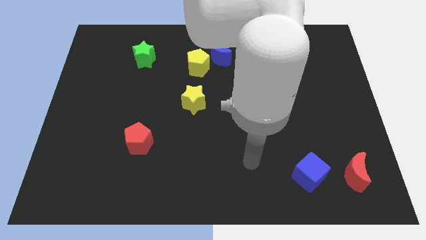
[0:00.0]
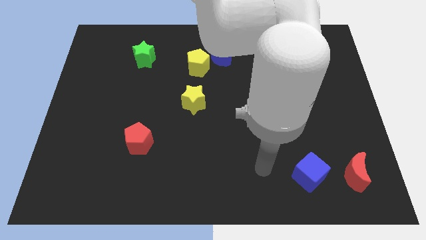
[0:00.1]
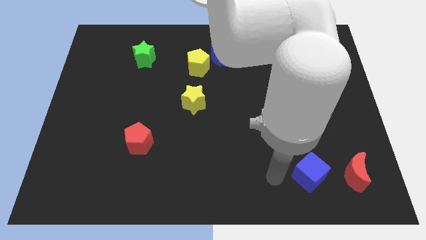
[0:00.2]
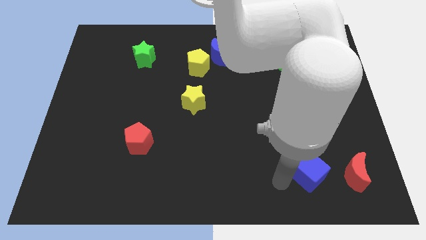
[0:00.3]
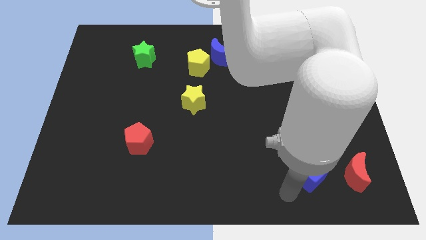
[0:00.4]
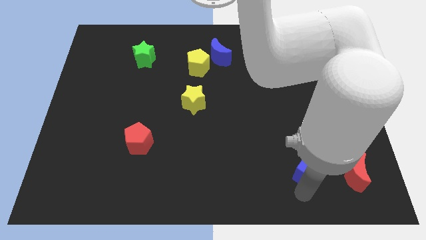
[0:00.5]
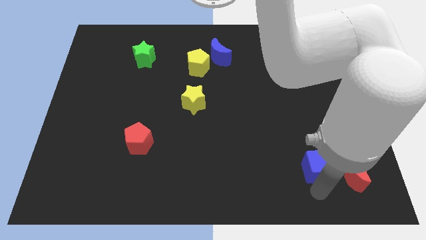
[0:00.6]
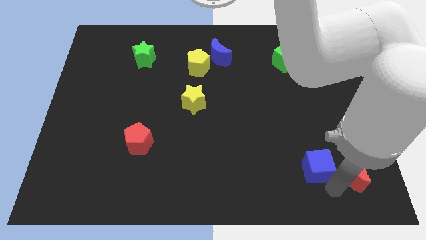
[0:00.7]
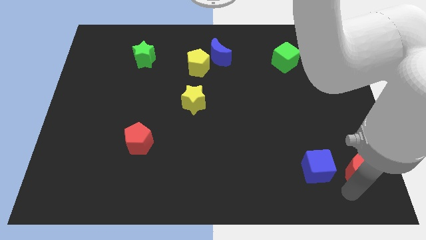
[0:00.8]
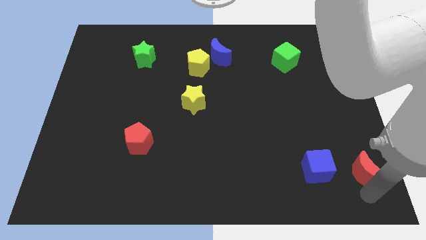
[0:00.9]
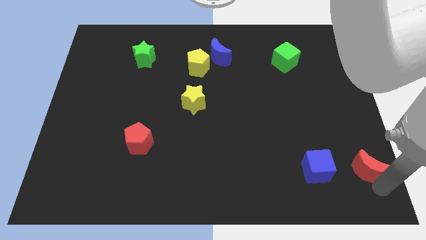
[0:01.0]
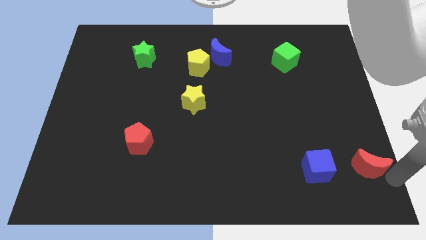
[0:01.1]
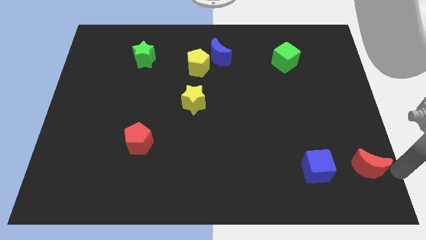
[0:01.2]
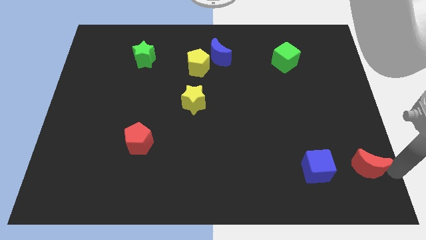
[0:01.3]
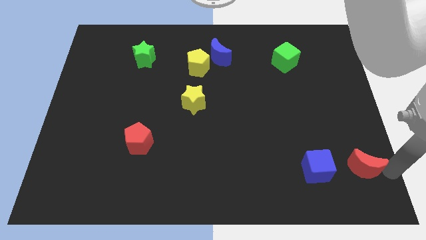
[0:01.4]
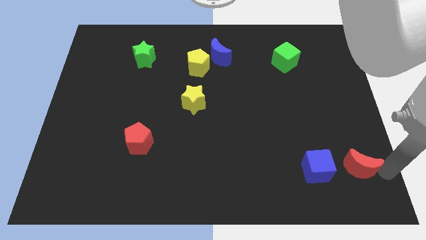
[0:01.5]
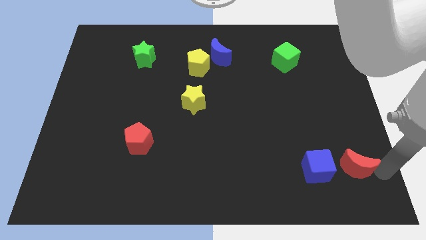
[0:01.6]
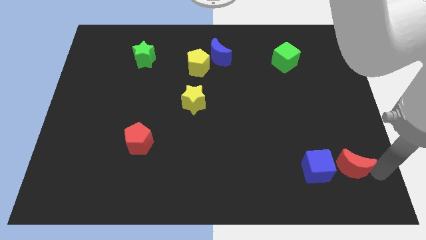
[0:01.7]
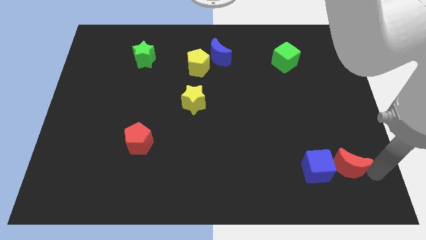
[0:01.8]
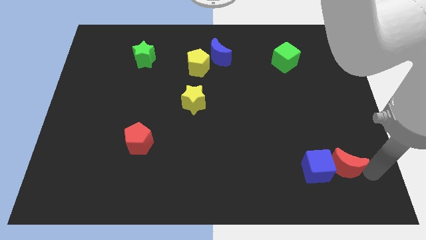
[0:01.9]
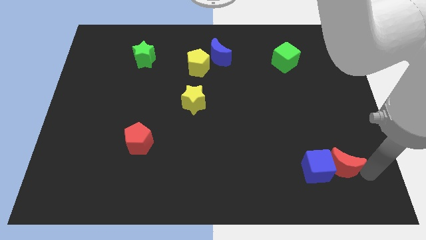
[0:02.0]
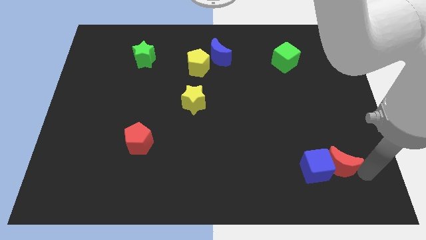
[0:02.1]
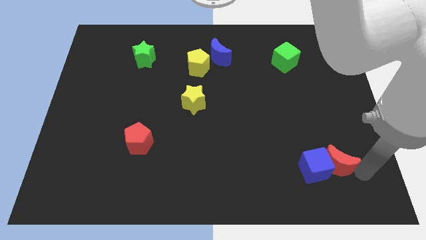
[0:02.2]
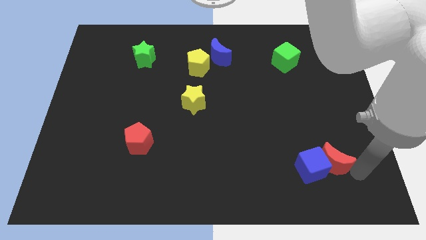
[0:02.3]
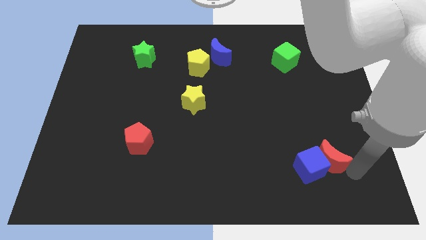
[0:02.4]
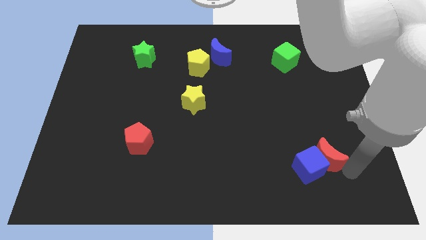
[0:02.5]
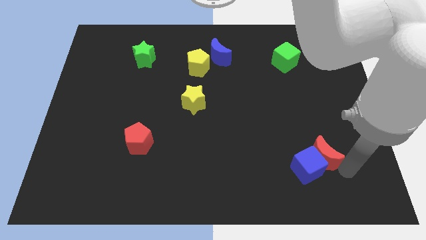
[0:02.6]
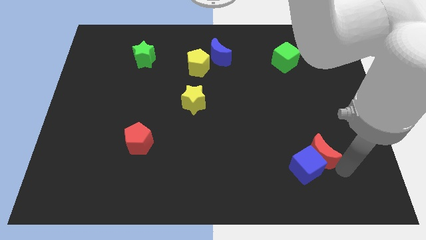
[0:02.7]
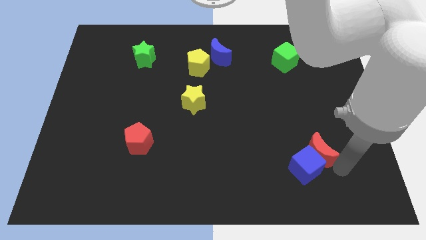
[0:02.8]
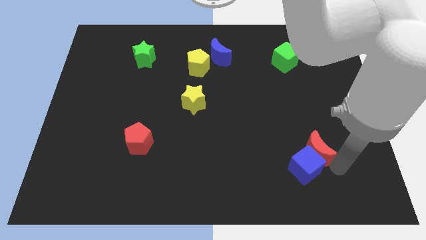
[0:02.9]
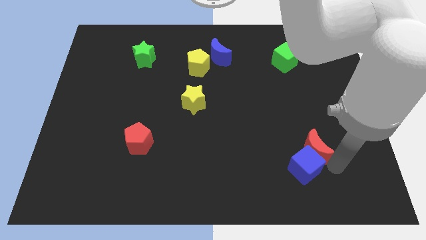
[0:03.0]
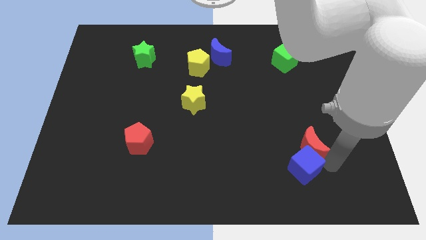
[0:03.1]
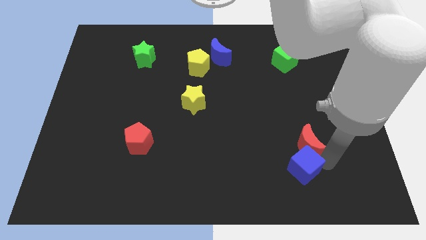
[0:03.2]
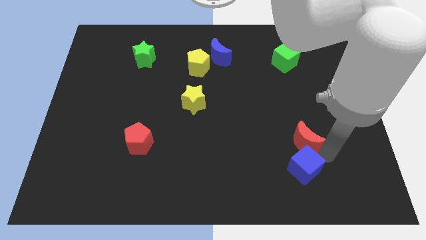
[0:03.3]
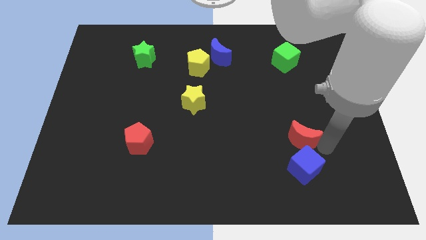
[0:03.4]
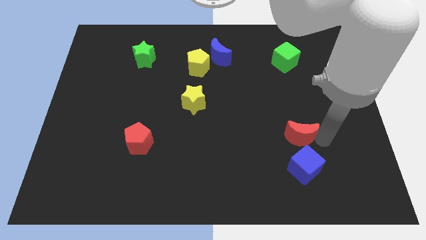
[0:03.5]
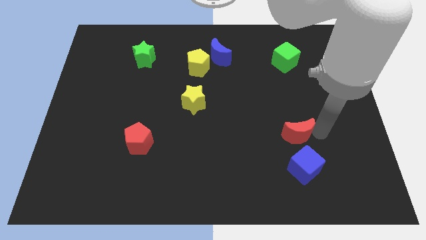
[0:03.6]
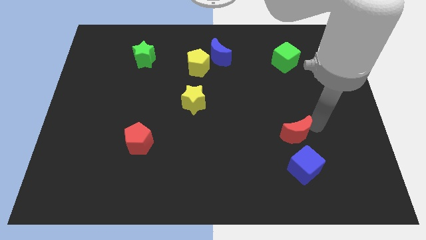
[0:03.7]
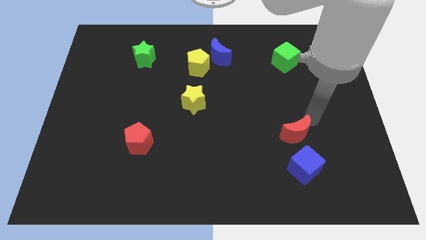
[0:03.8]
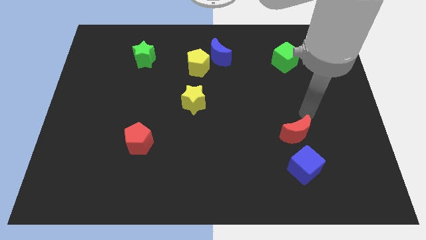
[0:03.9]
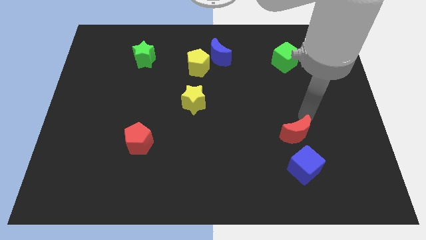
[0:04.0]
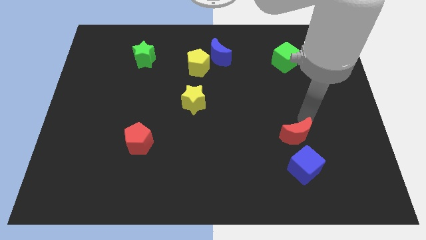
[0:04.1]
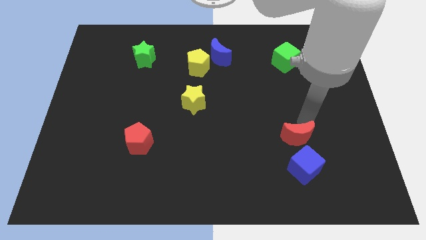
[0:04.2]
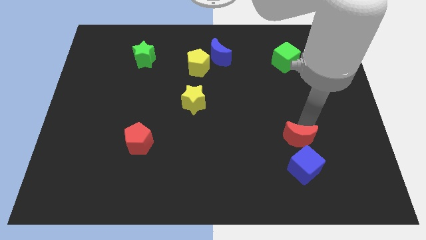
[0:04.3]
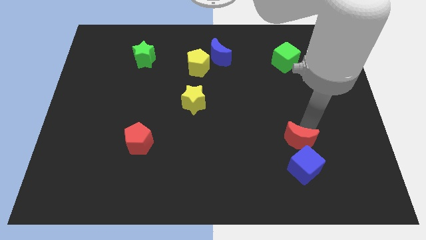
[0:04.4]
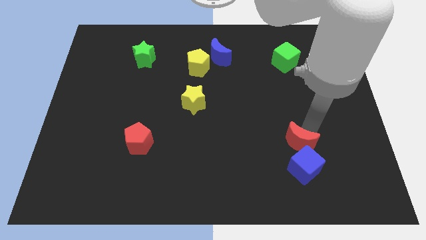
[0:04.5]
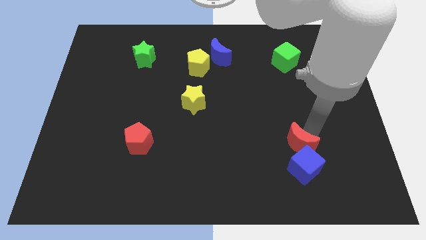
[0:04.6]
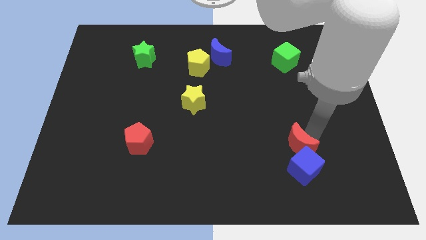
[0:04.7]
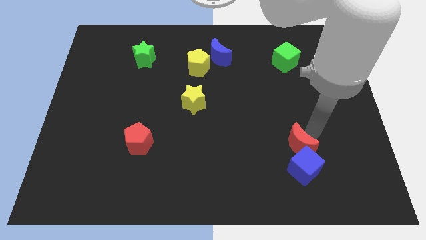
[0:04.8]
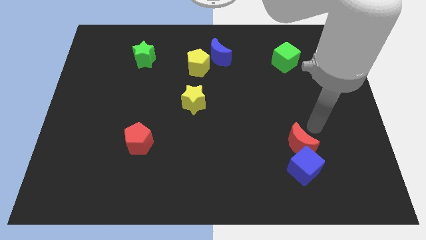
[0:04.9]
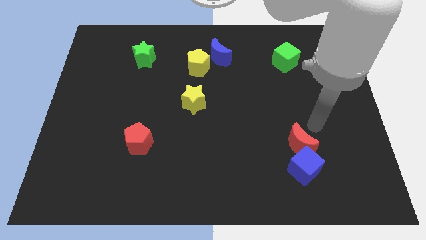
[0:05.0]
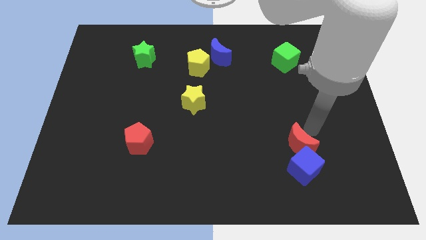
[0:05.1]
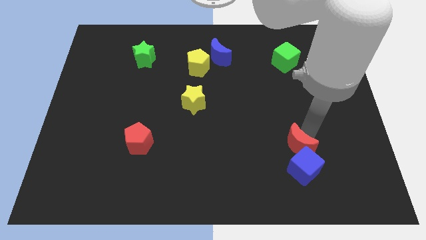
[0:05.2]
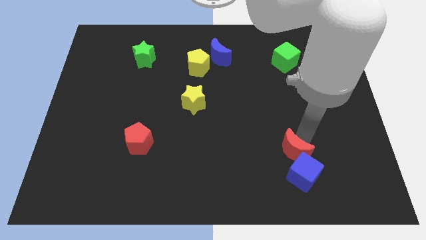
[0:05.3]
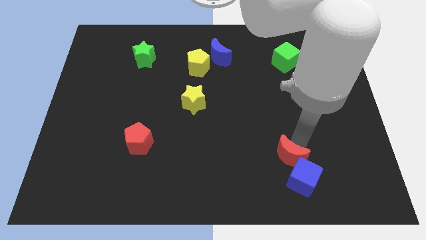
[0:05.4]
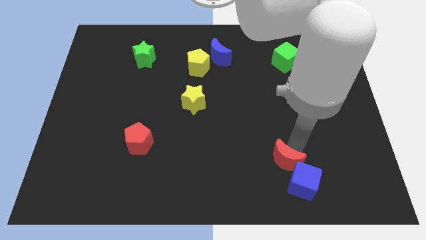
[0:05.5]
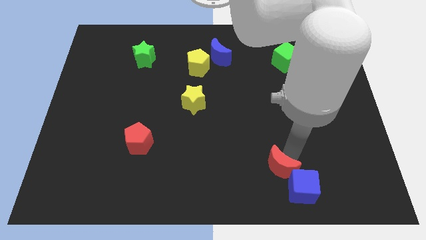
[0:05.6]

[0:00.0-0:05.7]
slide the red moon to the left side of the blue cube

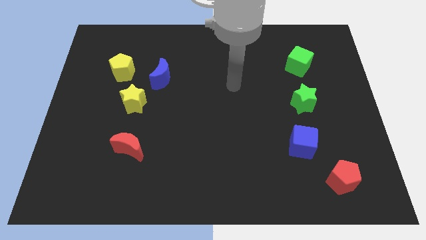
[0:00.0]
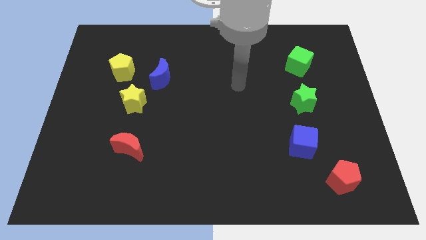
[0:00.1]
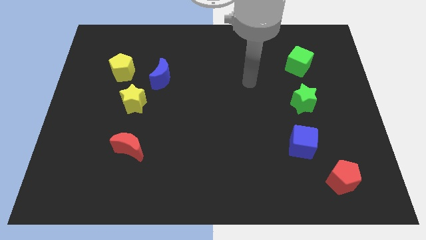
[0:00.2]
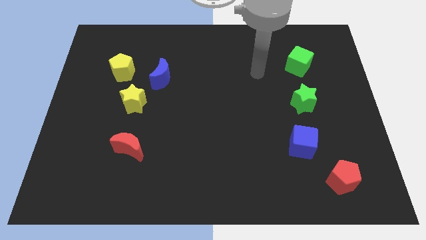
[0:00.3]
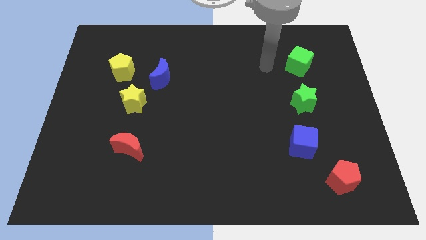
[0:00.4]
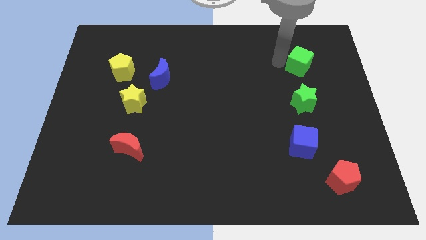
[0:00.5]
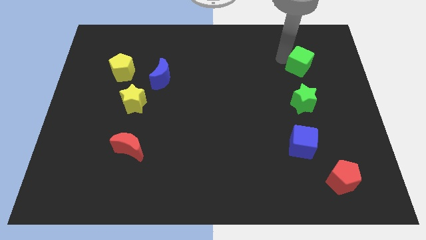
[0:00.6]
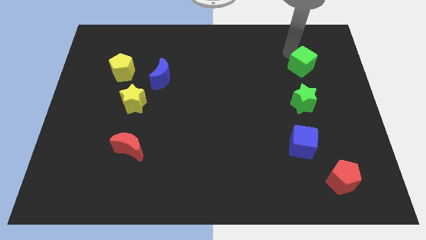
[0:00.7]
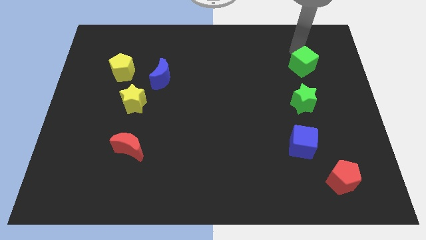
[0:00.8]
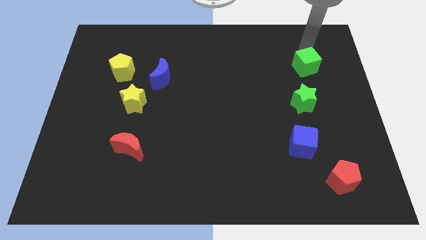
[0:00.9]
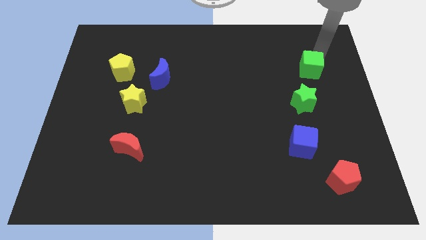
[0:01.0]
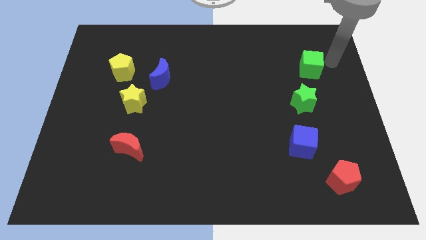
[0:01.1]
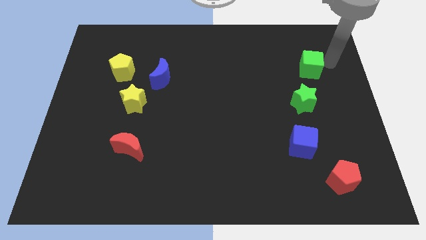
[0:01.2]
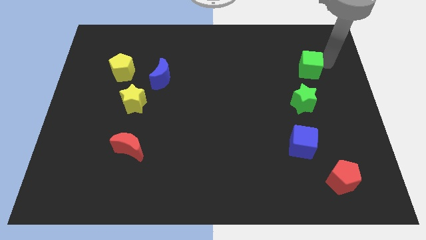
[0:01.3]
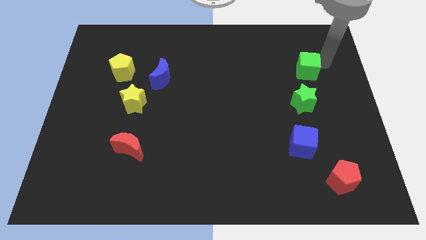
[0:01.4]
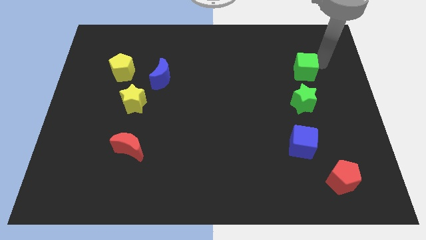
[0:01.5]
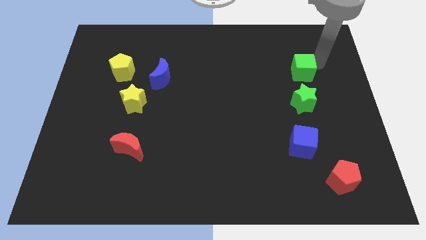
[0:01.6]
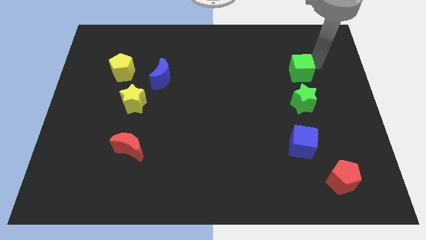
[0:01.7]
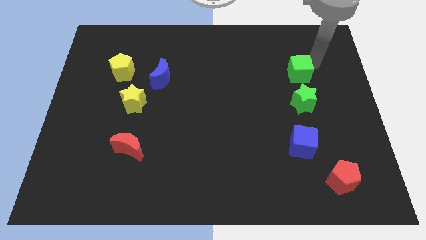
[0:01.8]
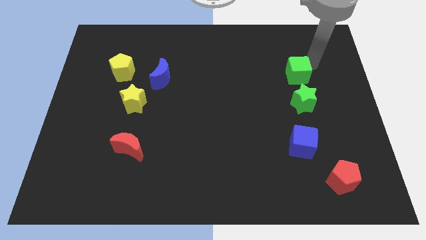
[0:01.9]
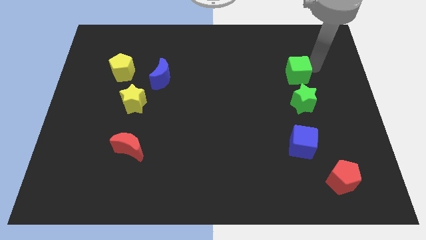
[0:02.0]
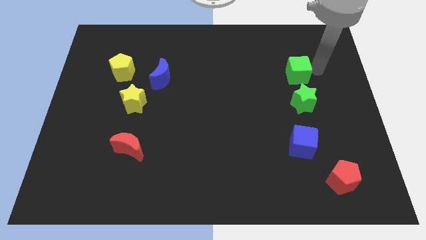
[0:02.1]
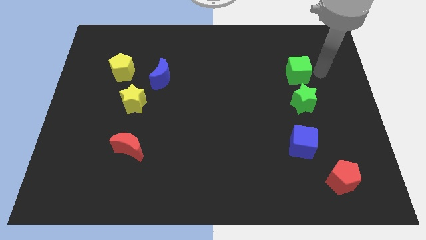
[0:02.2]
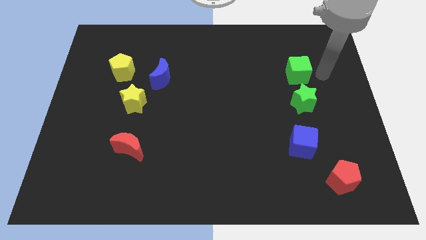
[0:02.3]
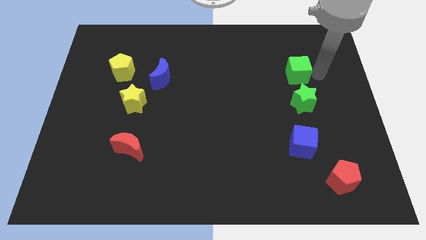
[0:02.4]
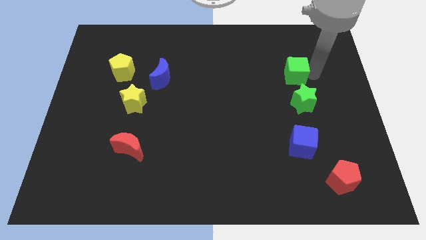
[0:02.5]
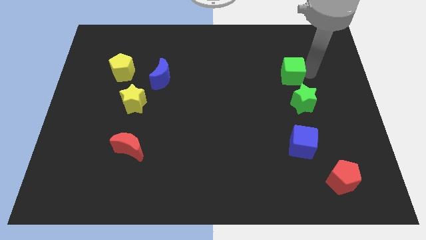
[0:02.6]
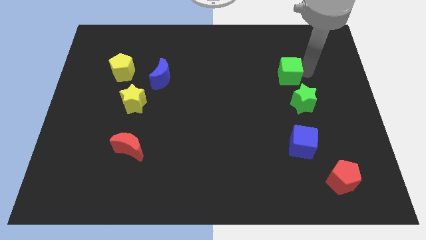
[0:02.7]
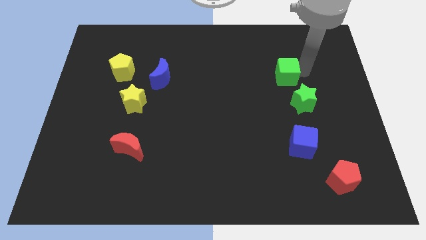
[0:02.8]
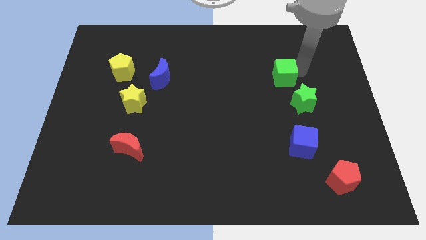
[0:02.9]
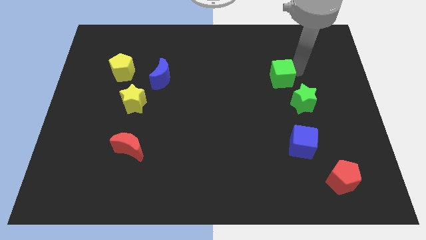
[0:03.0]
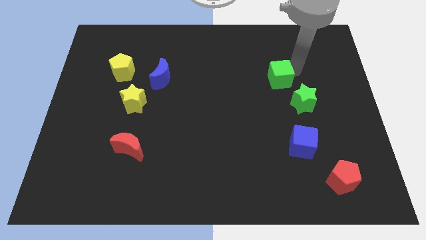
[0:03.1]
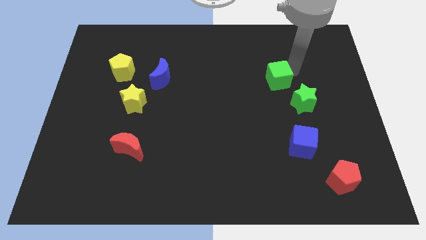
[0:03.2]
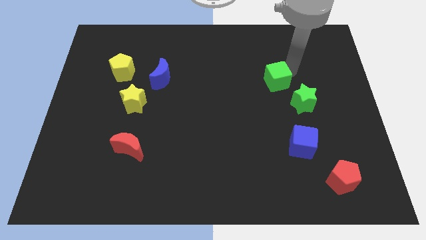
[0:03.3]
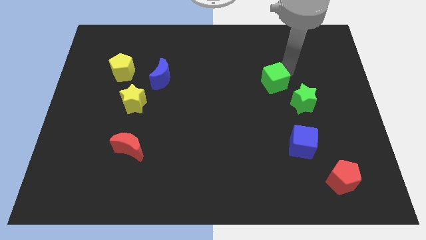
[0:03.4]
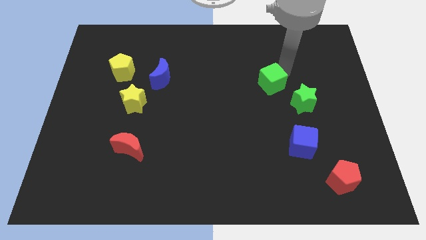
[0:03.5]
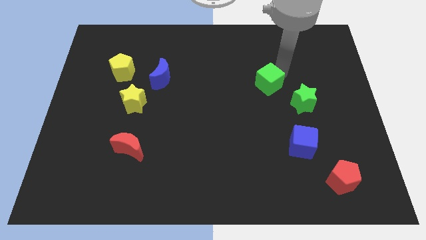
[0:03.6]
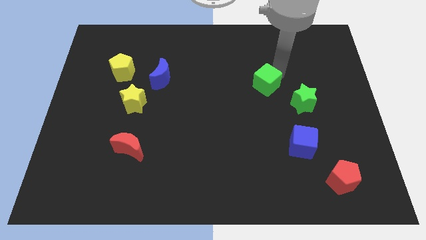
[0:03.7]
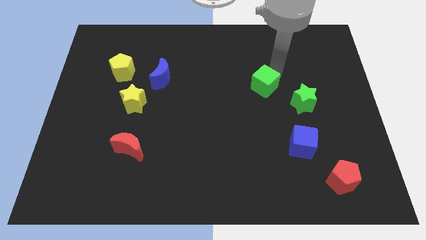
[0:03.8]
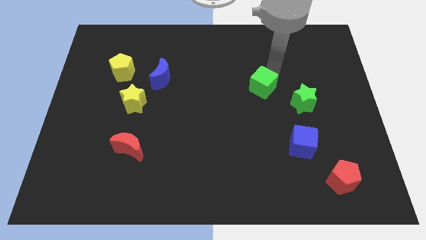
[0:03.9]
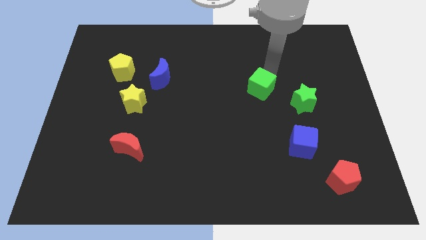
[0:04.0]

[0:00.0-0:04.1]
slide the green cube to the left side of the green star
